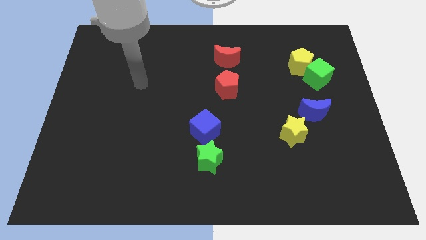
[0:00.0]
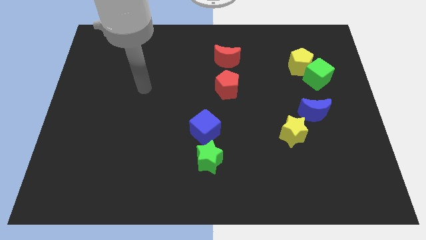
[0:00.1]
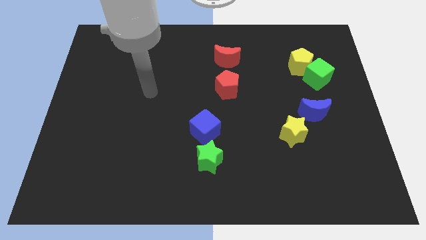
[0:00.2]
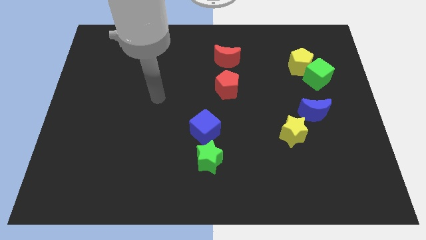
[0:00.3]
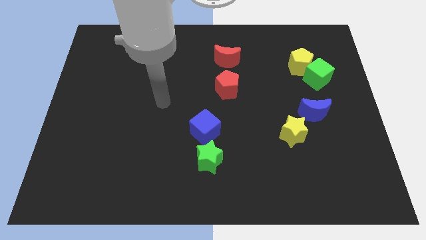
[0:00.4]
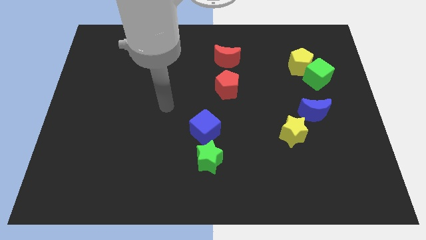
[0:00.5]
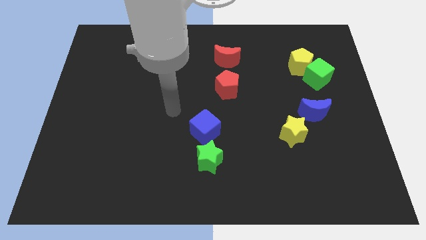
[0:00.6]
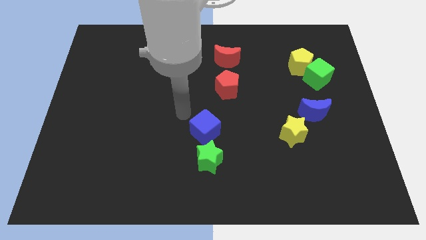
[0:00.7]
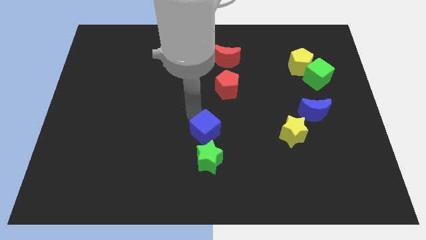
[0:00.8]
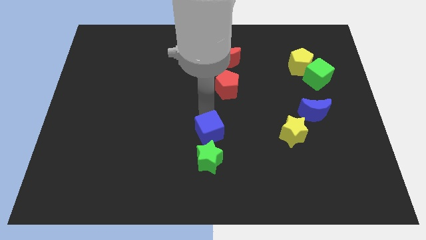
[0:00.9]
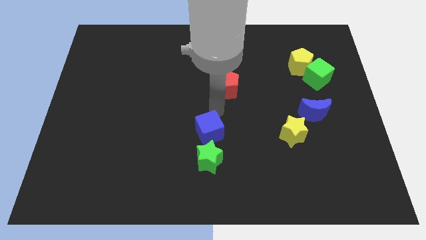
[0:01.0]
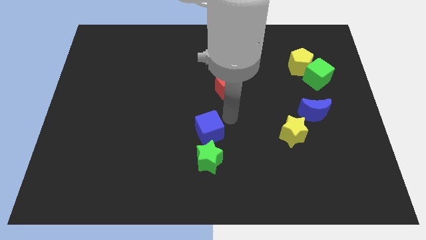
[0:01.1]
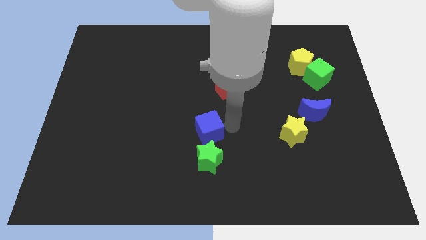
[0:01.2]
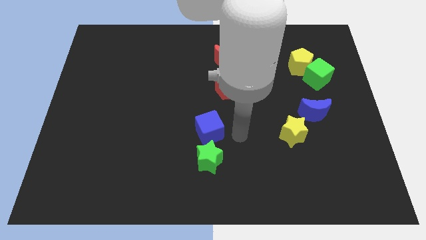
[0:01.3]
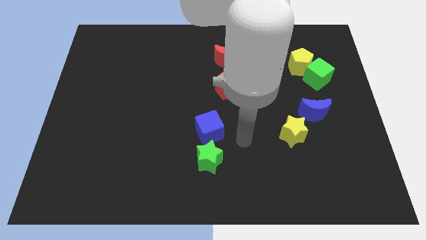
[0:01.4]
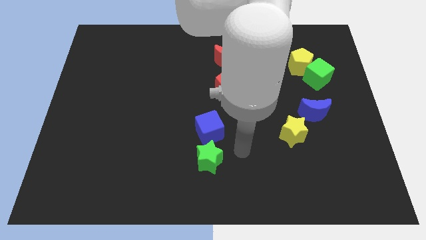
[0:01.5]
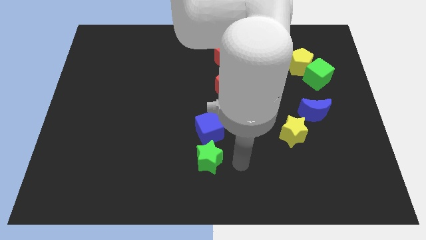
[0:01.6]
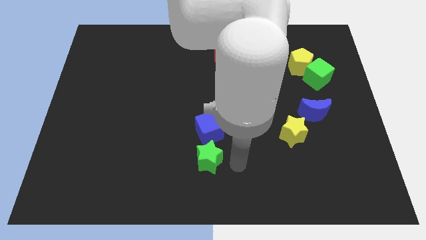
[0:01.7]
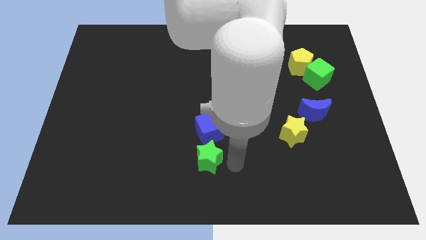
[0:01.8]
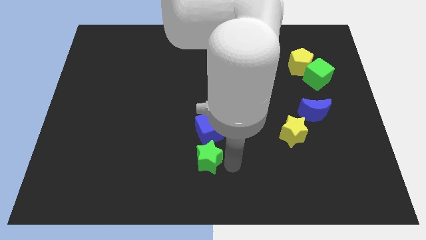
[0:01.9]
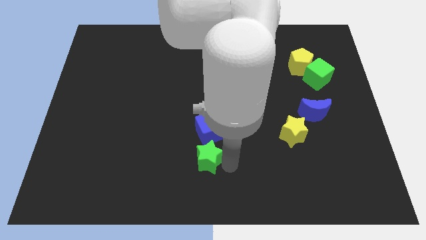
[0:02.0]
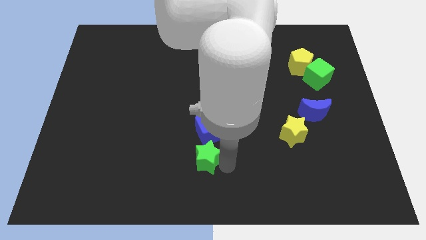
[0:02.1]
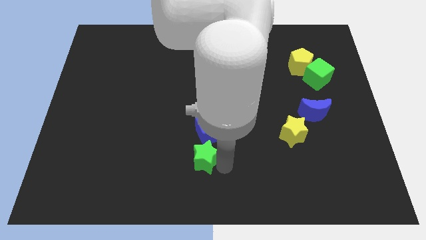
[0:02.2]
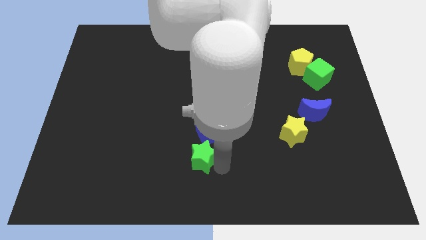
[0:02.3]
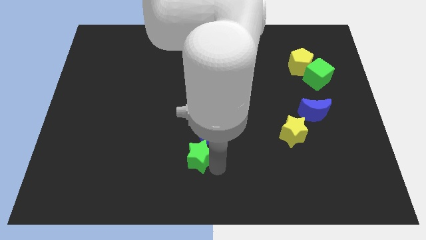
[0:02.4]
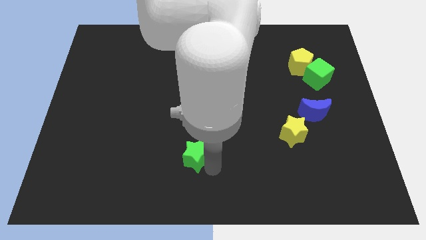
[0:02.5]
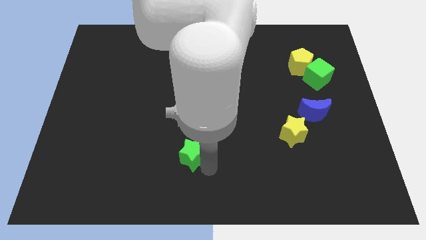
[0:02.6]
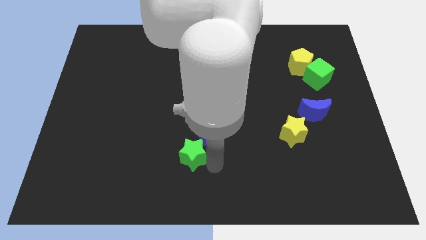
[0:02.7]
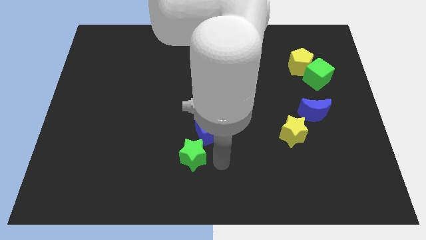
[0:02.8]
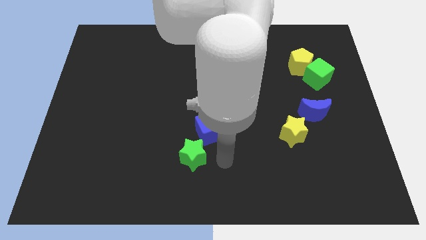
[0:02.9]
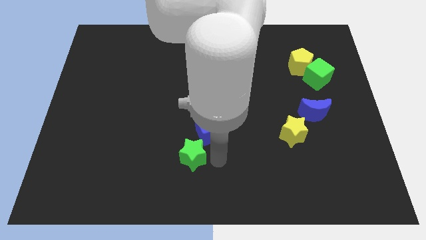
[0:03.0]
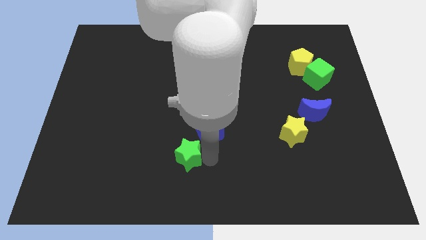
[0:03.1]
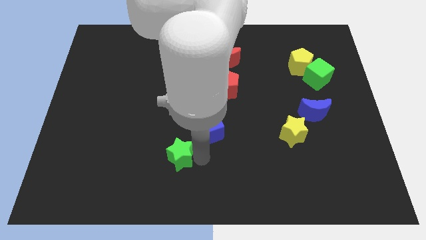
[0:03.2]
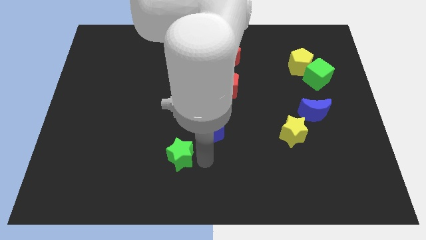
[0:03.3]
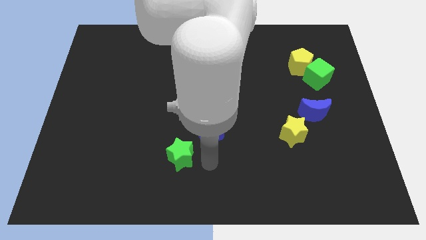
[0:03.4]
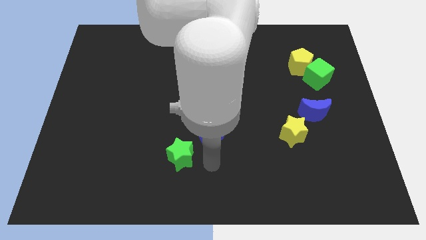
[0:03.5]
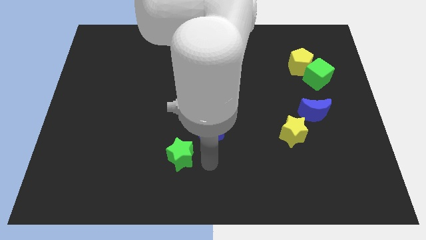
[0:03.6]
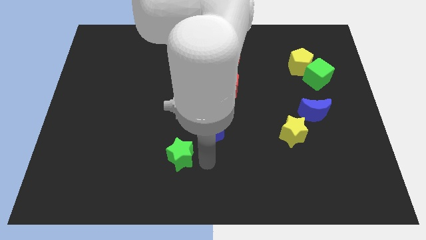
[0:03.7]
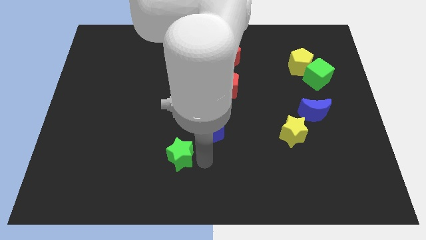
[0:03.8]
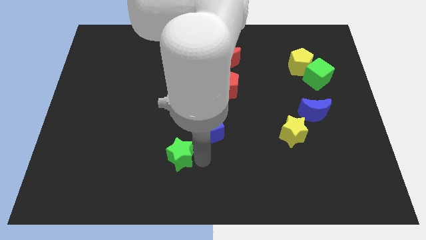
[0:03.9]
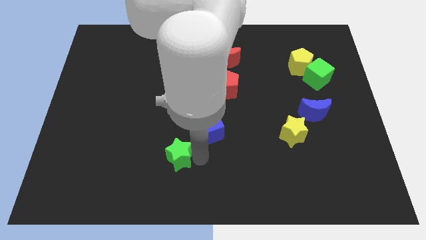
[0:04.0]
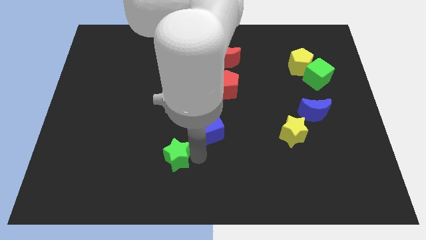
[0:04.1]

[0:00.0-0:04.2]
push the green star to the left slightly

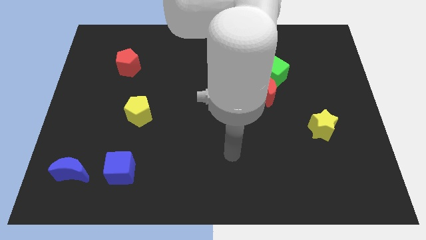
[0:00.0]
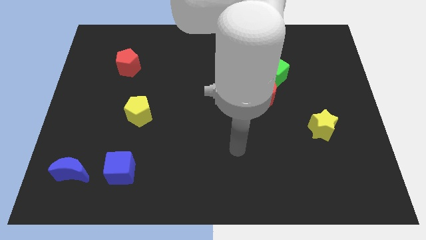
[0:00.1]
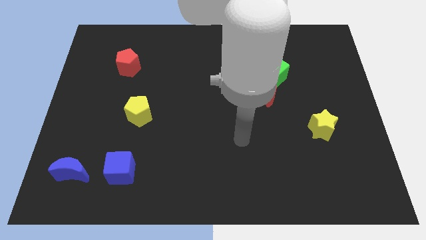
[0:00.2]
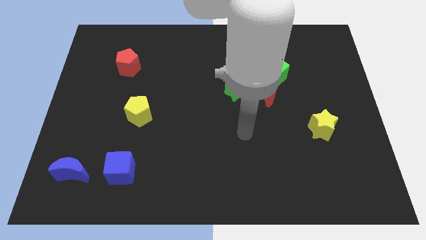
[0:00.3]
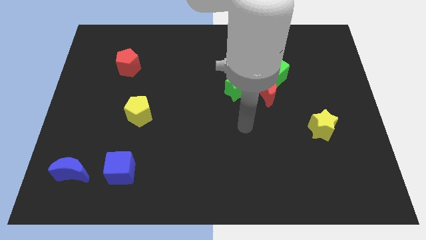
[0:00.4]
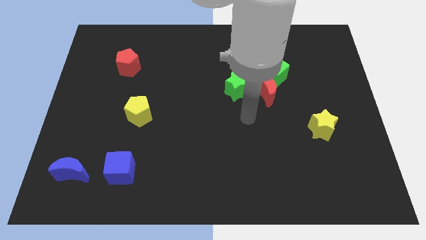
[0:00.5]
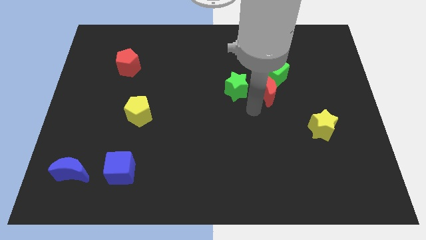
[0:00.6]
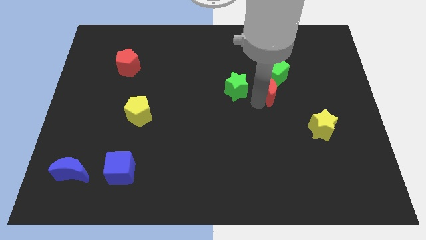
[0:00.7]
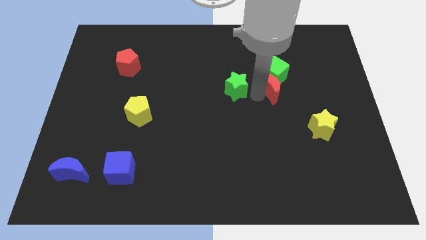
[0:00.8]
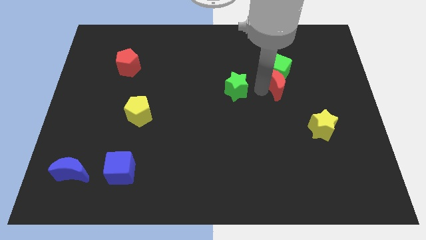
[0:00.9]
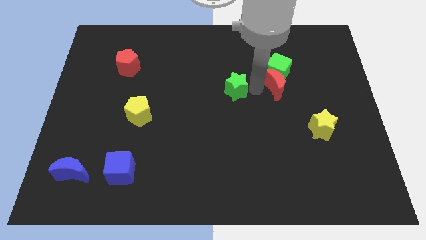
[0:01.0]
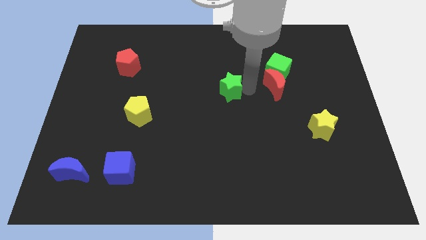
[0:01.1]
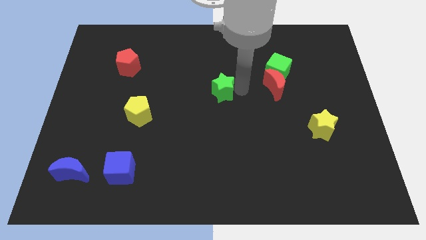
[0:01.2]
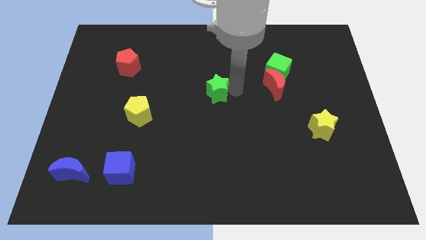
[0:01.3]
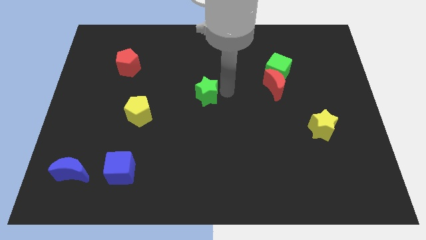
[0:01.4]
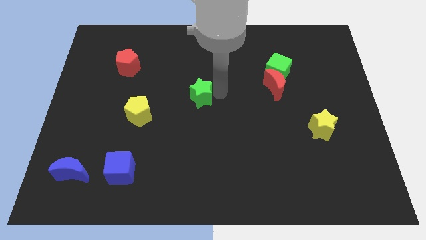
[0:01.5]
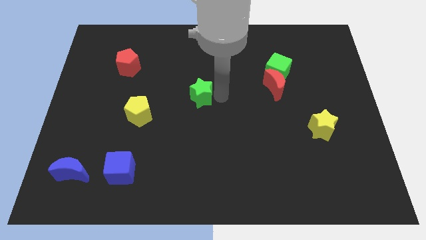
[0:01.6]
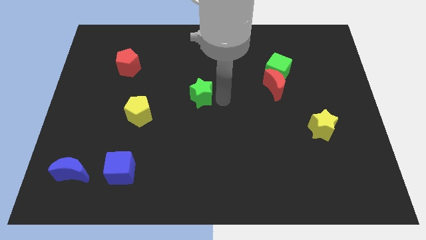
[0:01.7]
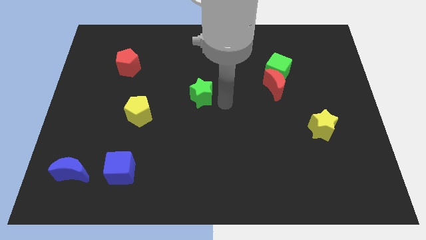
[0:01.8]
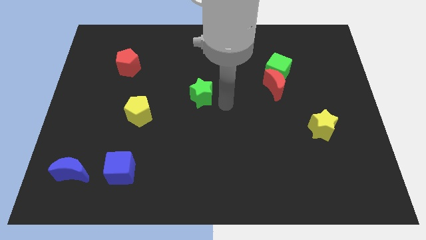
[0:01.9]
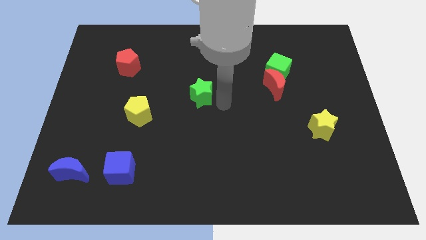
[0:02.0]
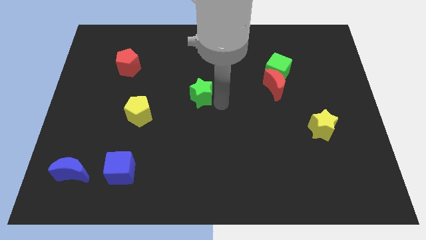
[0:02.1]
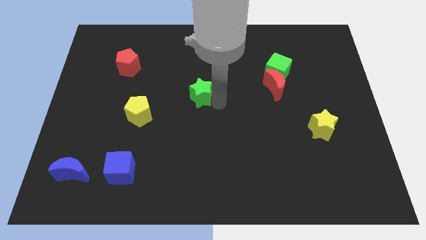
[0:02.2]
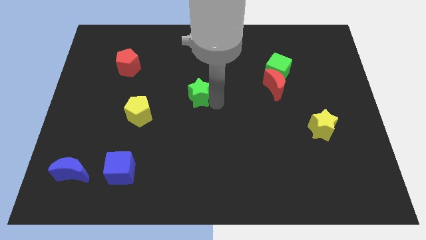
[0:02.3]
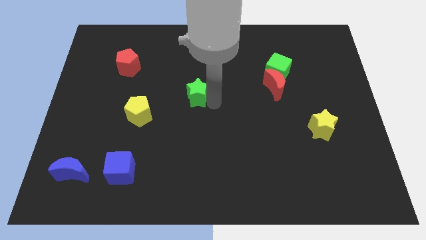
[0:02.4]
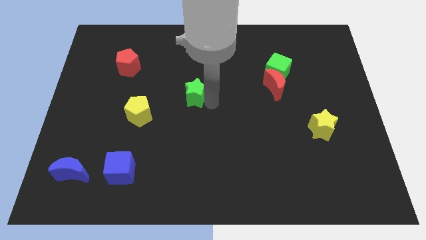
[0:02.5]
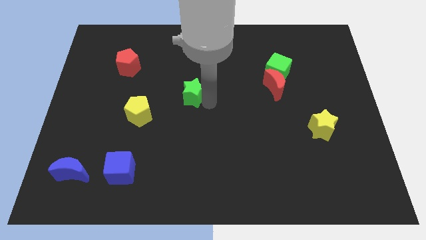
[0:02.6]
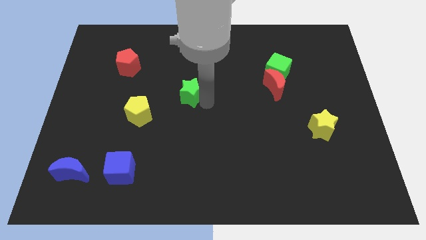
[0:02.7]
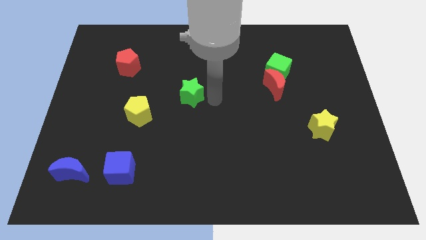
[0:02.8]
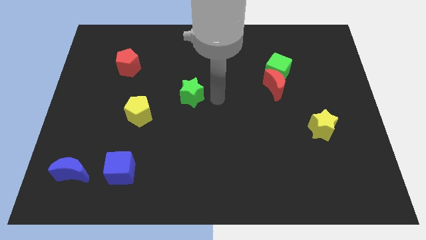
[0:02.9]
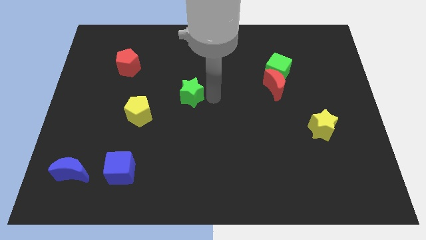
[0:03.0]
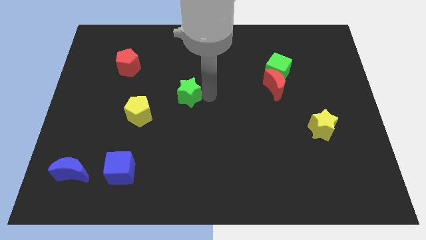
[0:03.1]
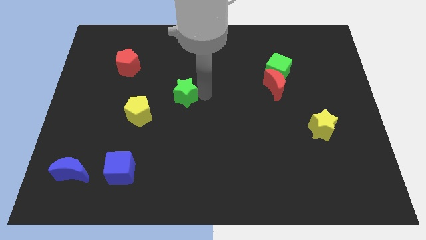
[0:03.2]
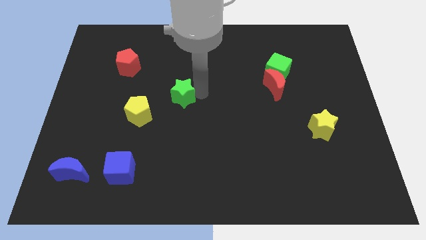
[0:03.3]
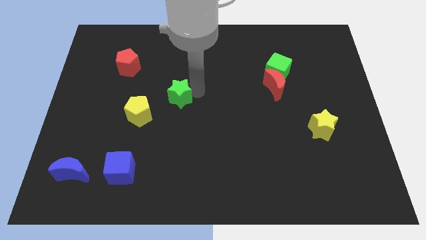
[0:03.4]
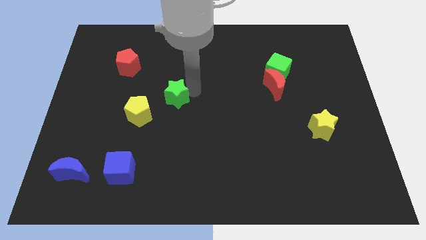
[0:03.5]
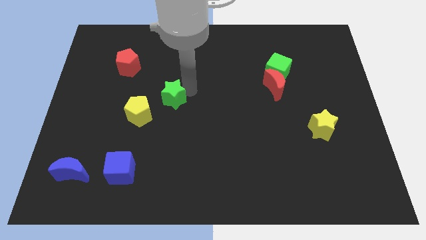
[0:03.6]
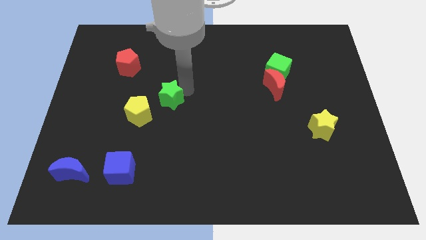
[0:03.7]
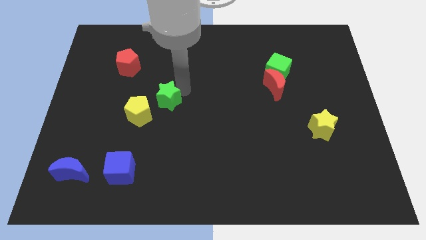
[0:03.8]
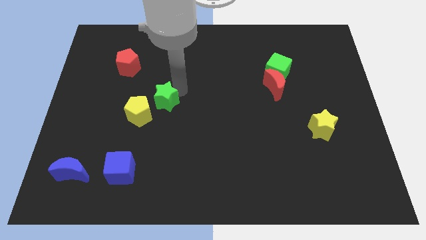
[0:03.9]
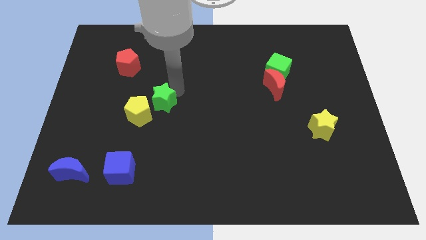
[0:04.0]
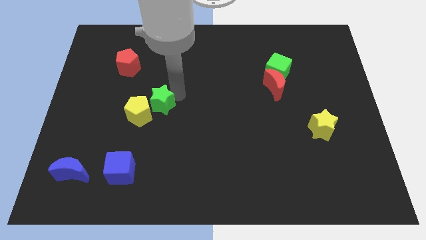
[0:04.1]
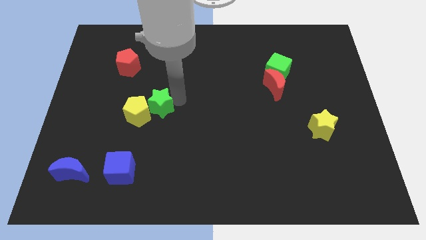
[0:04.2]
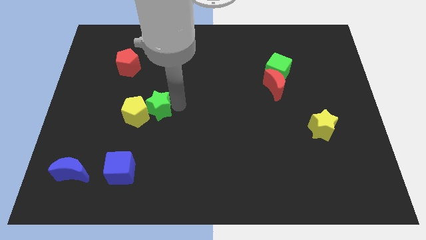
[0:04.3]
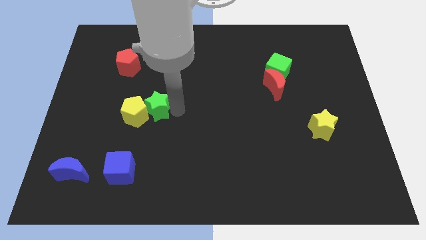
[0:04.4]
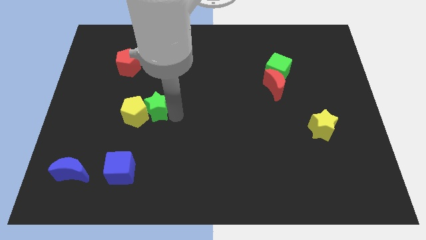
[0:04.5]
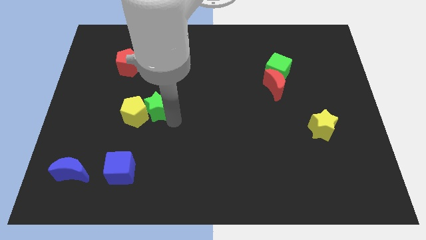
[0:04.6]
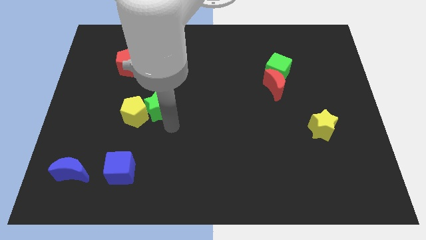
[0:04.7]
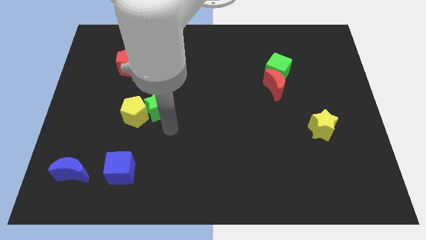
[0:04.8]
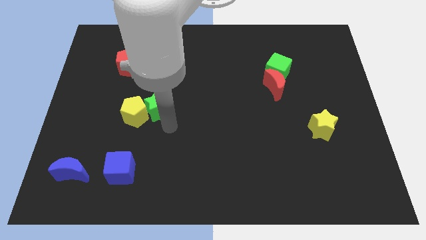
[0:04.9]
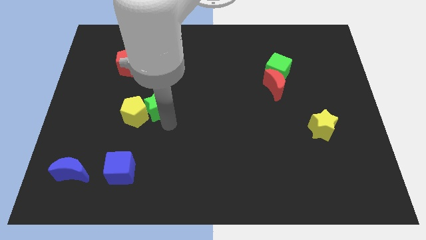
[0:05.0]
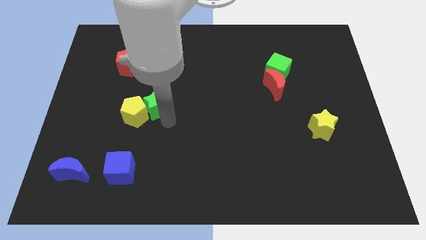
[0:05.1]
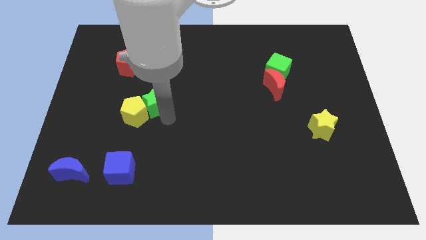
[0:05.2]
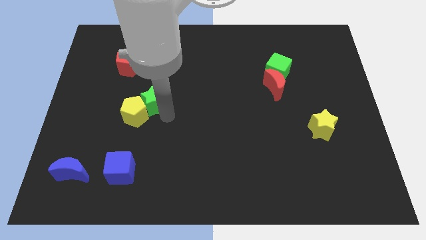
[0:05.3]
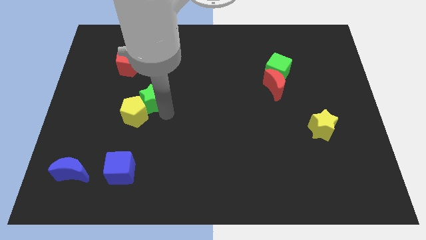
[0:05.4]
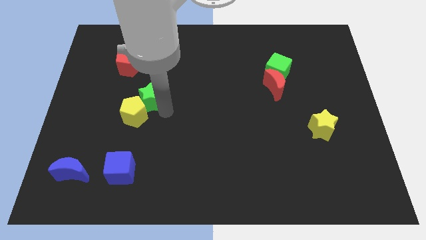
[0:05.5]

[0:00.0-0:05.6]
slide the green star to the left
